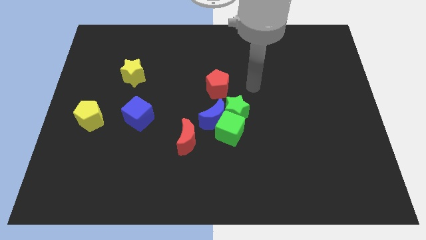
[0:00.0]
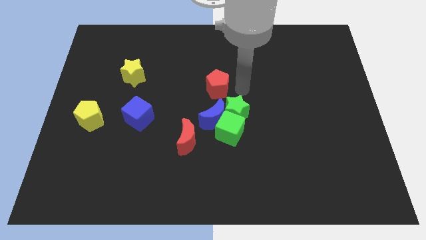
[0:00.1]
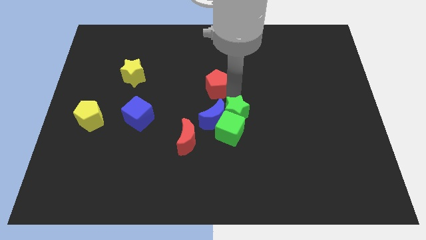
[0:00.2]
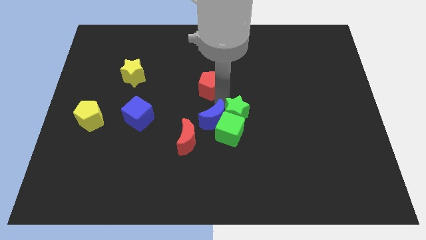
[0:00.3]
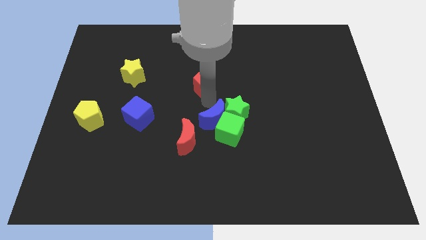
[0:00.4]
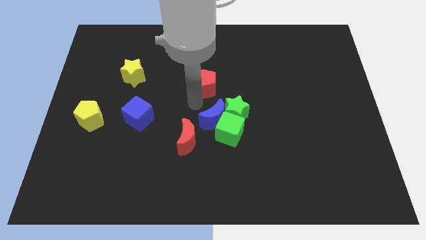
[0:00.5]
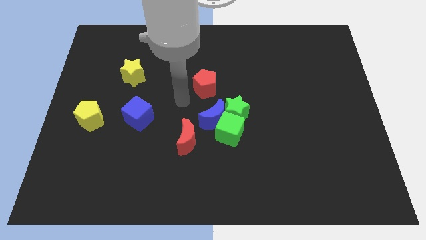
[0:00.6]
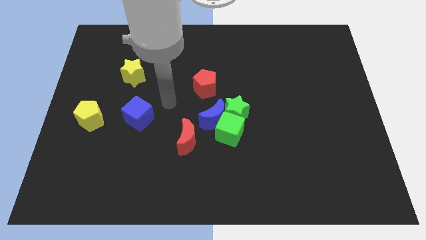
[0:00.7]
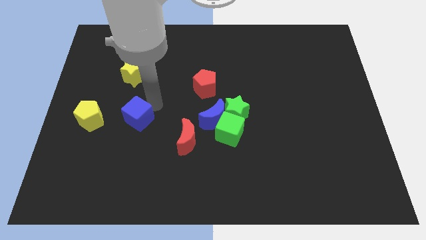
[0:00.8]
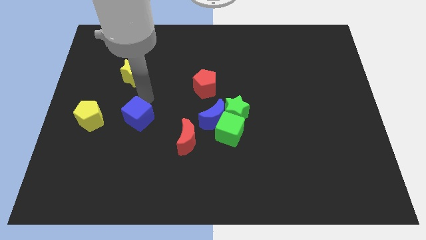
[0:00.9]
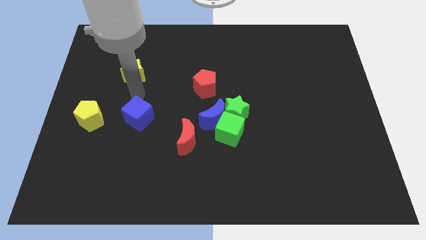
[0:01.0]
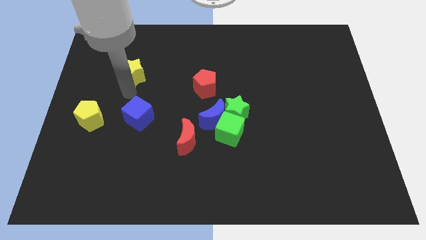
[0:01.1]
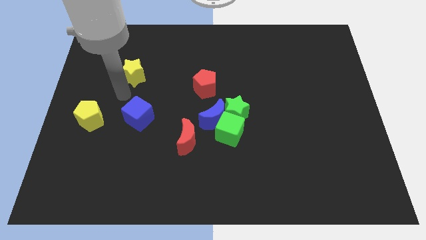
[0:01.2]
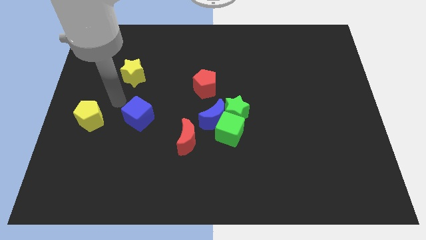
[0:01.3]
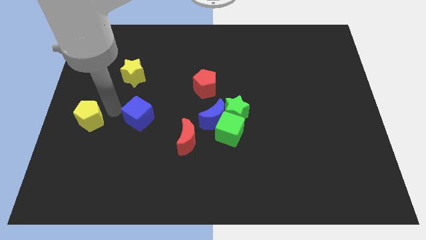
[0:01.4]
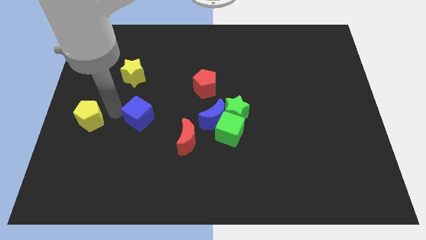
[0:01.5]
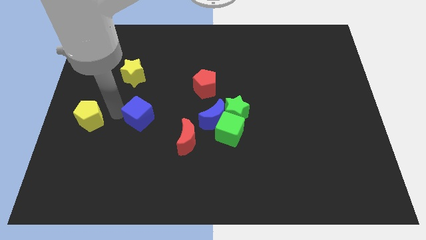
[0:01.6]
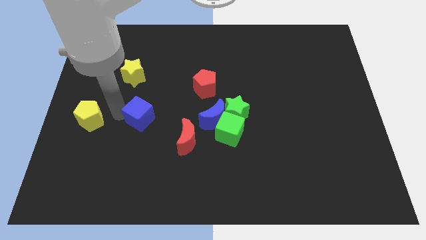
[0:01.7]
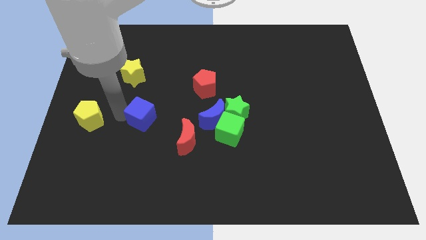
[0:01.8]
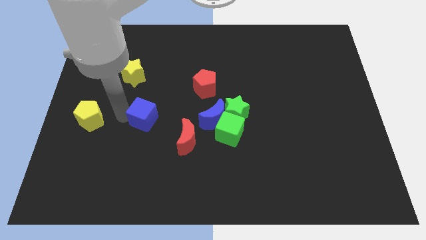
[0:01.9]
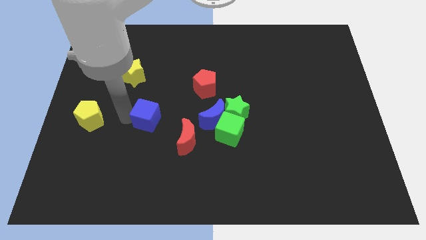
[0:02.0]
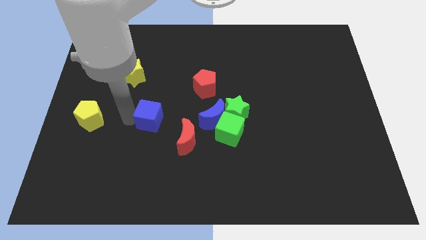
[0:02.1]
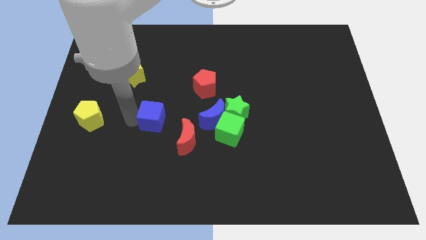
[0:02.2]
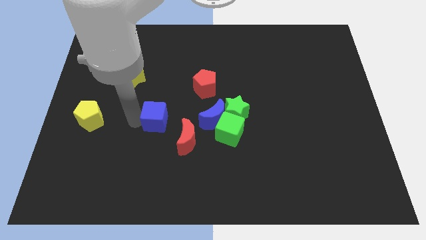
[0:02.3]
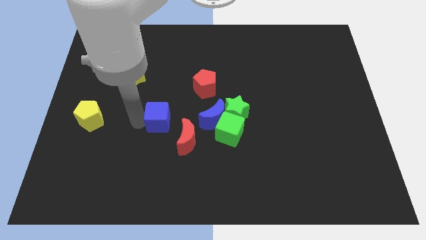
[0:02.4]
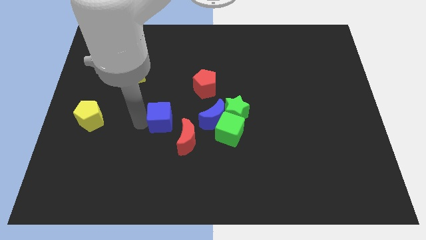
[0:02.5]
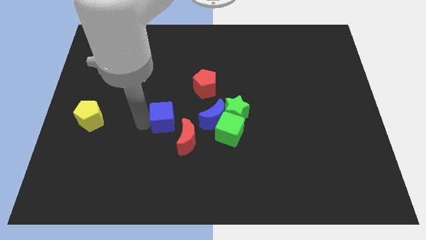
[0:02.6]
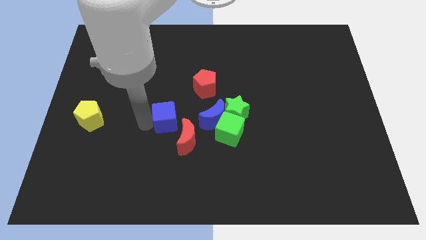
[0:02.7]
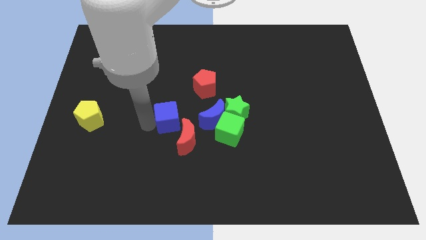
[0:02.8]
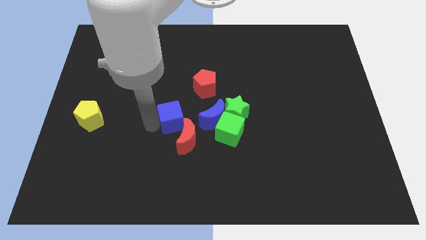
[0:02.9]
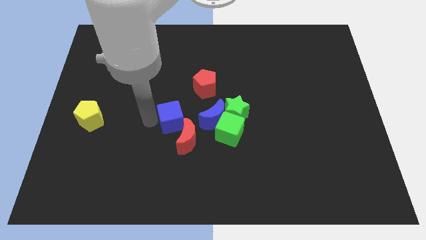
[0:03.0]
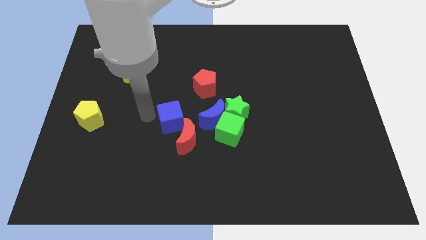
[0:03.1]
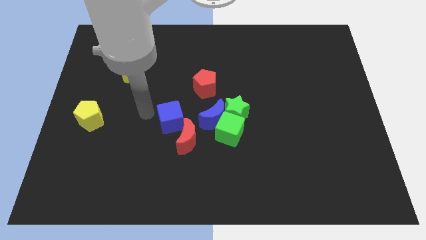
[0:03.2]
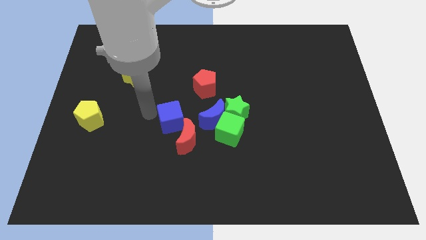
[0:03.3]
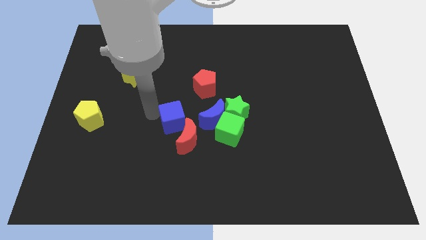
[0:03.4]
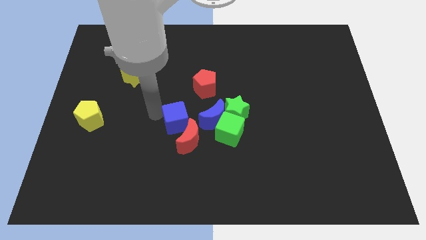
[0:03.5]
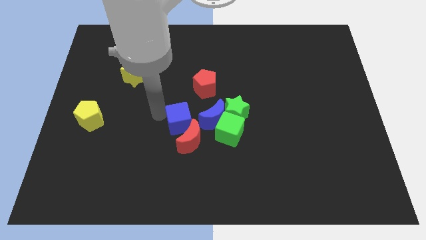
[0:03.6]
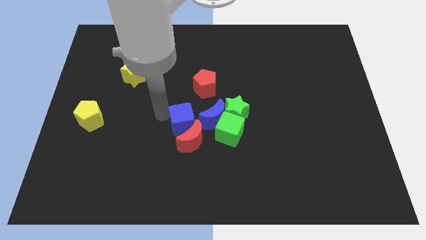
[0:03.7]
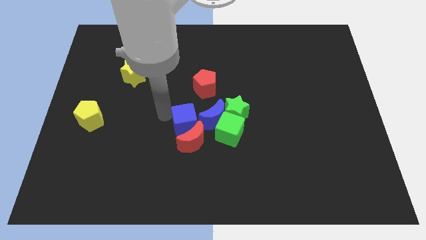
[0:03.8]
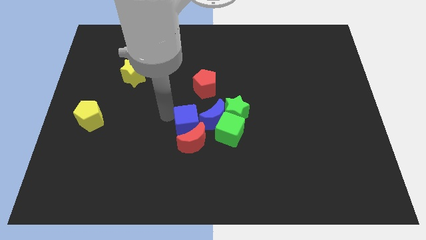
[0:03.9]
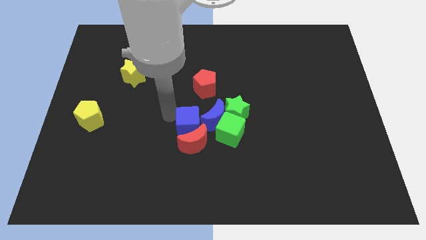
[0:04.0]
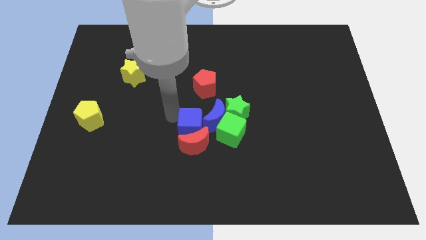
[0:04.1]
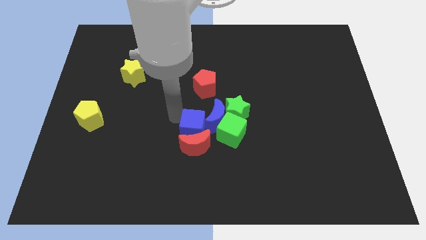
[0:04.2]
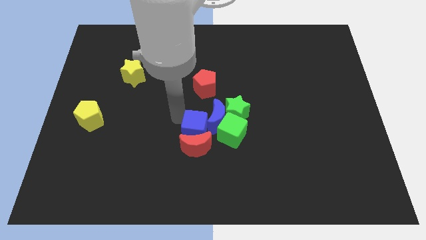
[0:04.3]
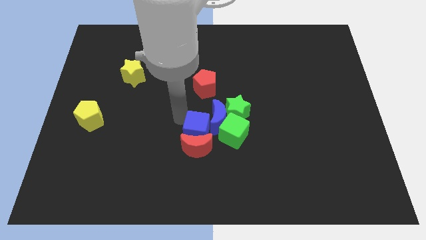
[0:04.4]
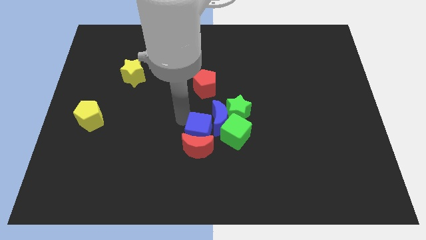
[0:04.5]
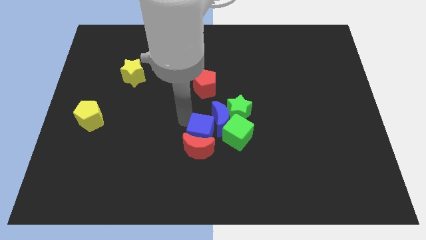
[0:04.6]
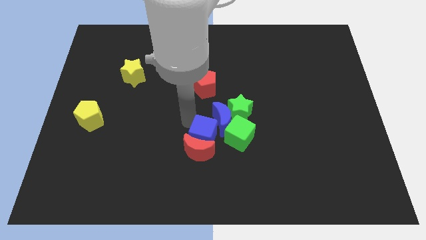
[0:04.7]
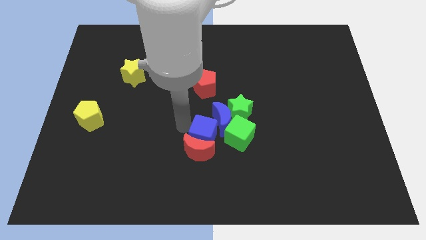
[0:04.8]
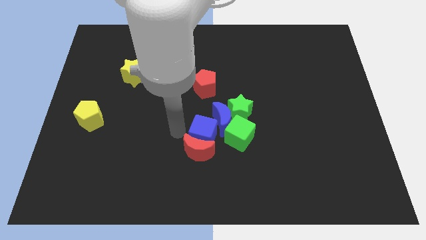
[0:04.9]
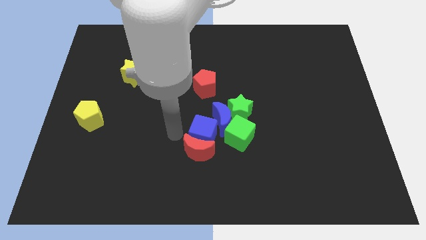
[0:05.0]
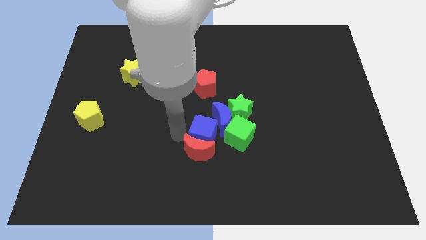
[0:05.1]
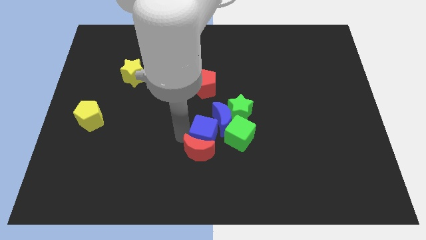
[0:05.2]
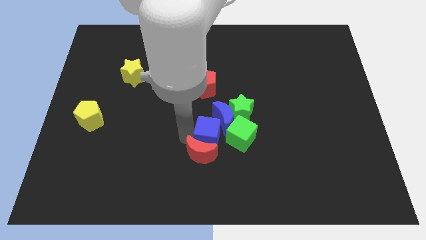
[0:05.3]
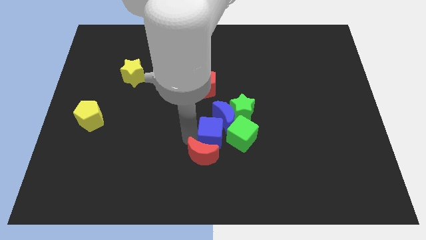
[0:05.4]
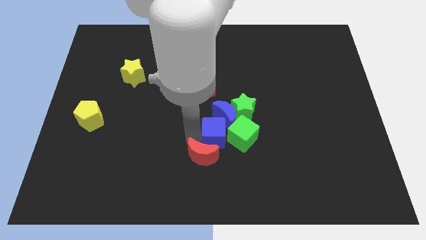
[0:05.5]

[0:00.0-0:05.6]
slide the blue cube towards the green cube

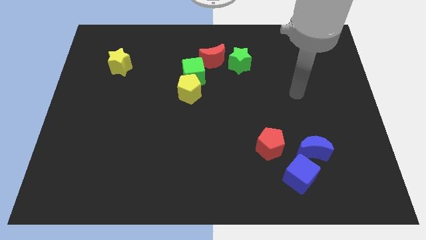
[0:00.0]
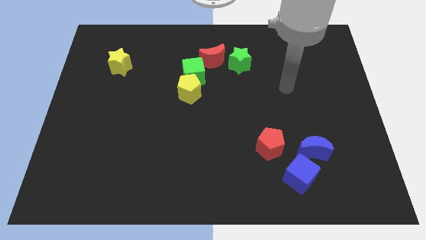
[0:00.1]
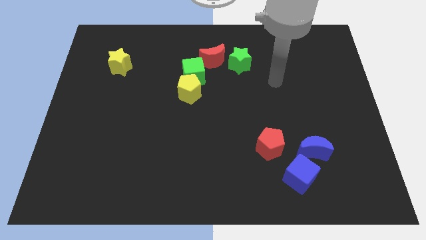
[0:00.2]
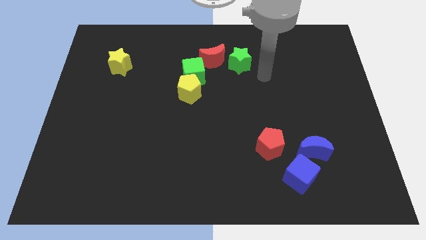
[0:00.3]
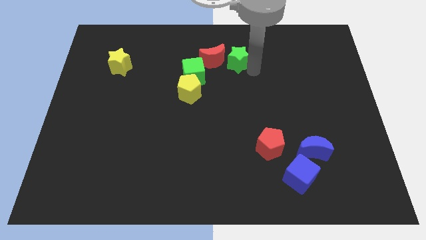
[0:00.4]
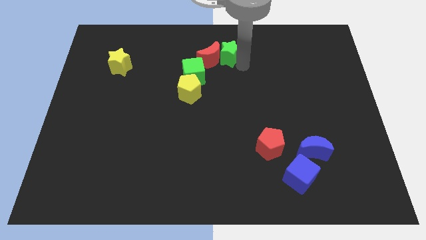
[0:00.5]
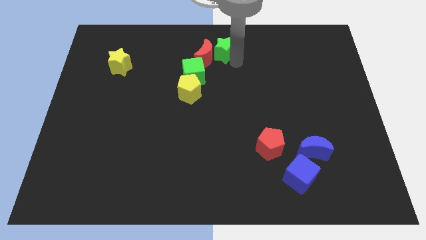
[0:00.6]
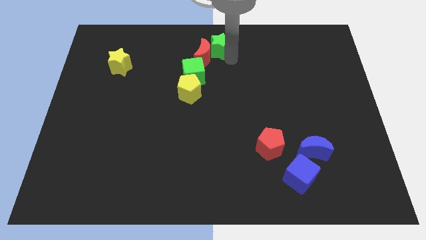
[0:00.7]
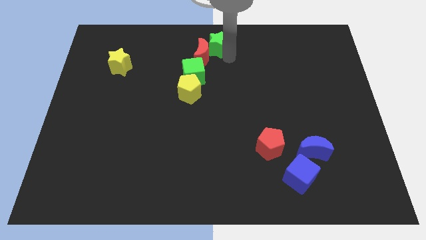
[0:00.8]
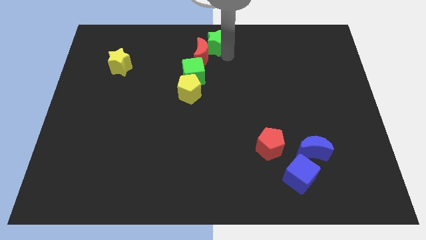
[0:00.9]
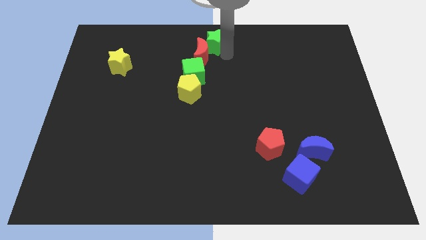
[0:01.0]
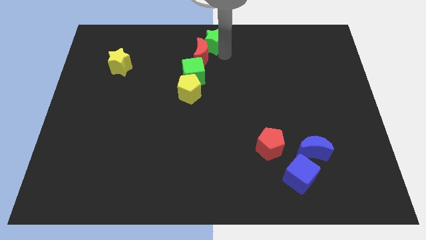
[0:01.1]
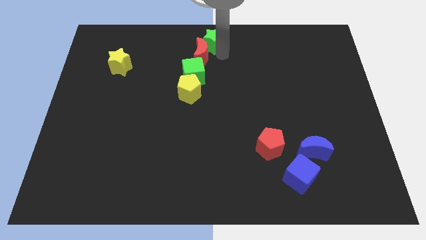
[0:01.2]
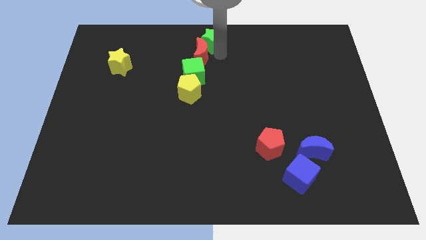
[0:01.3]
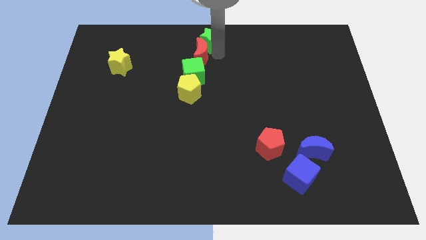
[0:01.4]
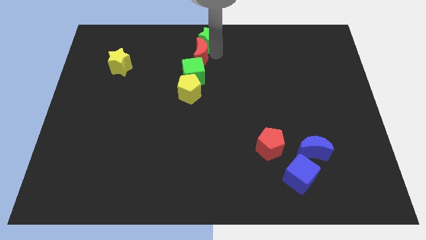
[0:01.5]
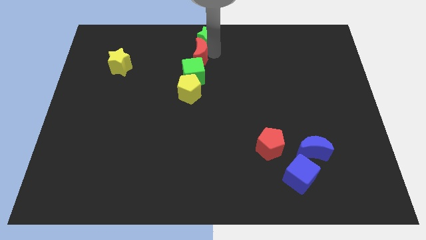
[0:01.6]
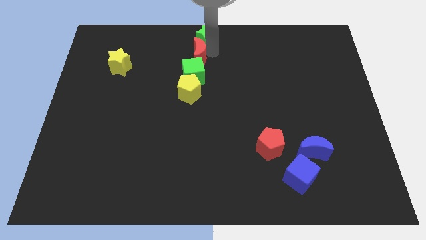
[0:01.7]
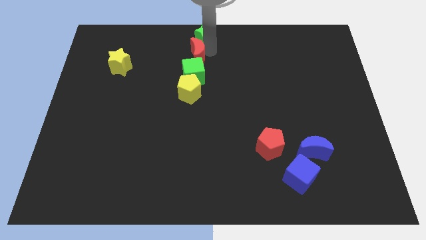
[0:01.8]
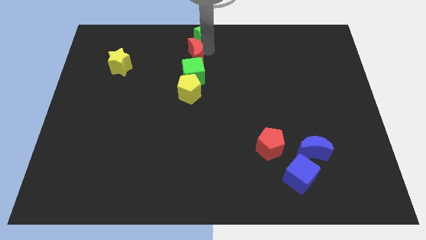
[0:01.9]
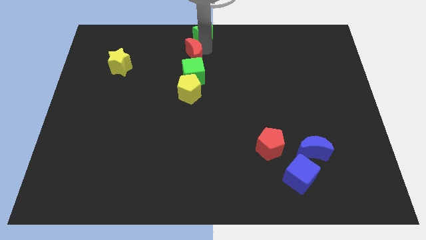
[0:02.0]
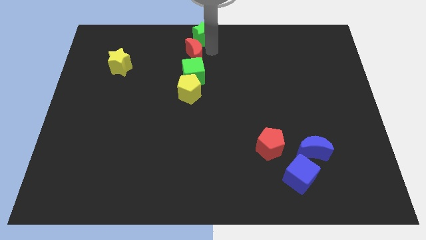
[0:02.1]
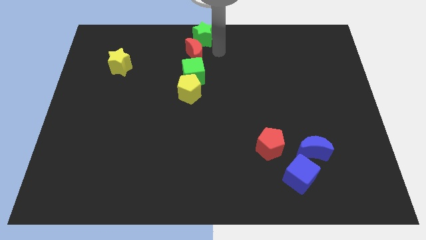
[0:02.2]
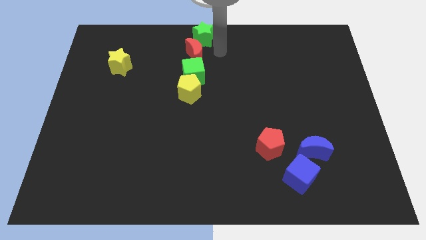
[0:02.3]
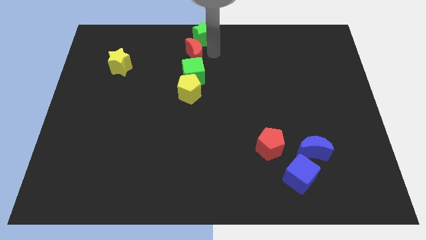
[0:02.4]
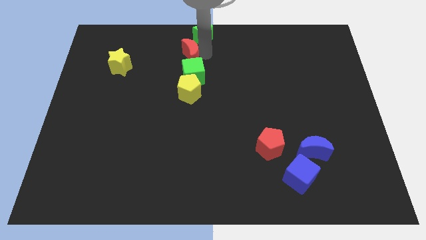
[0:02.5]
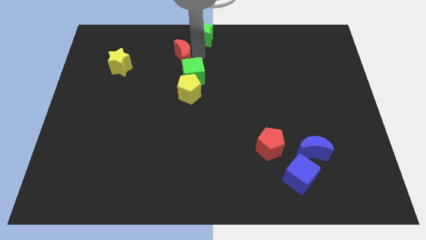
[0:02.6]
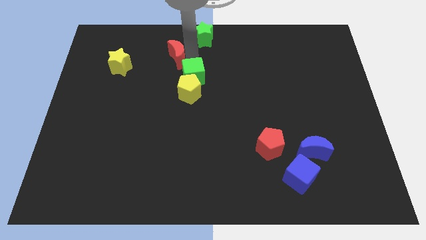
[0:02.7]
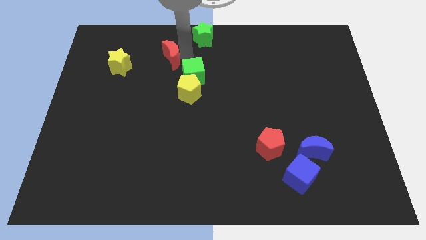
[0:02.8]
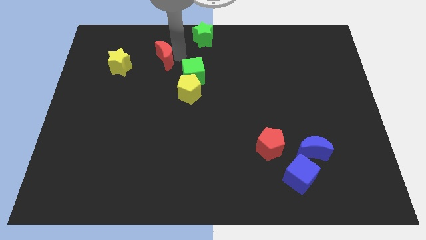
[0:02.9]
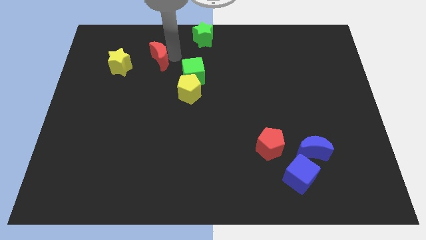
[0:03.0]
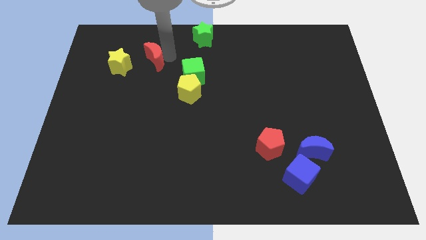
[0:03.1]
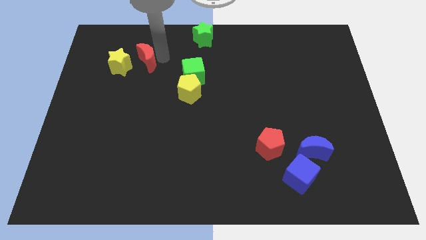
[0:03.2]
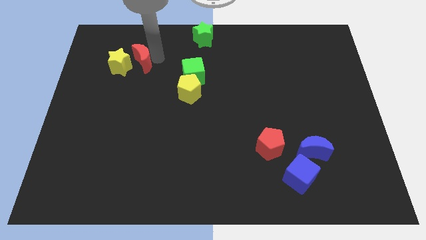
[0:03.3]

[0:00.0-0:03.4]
push the red moon next to the yellow star
